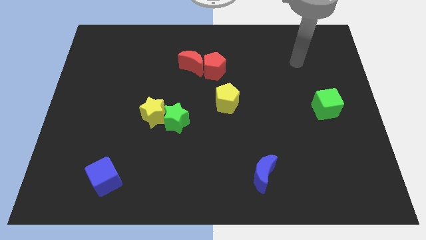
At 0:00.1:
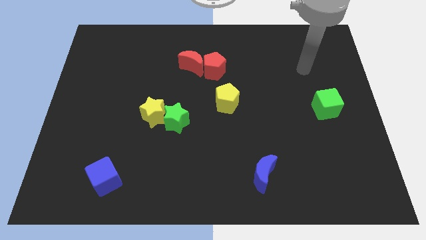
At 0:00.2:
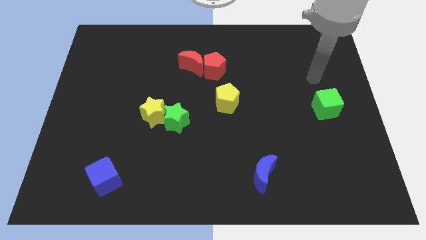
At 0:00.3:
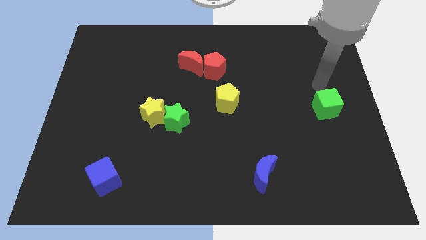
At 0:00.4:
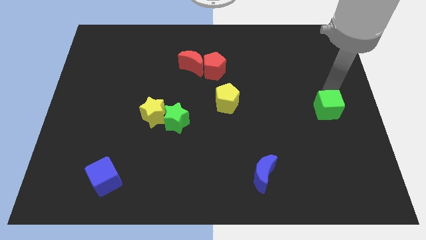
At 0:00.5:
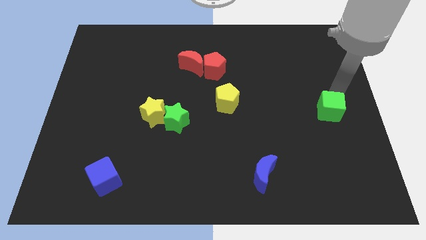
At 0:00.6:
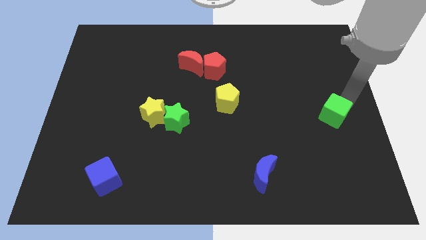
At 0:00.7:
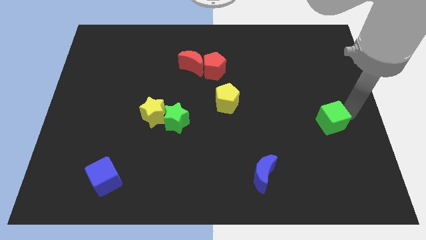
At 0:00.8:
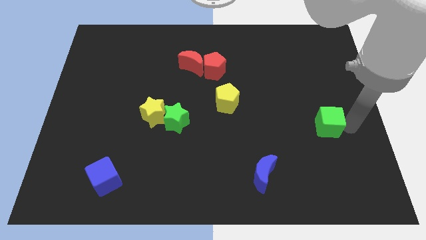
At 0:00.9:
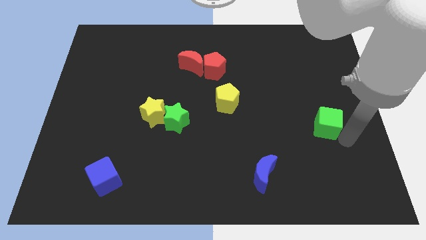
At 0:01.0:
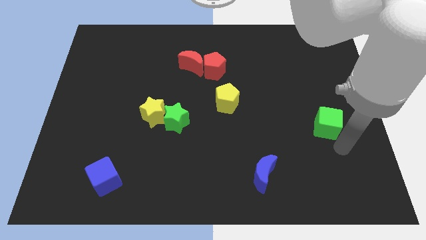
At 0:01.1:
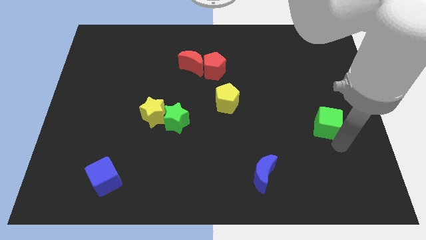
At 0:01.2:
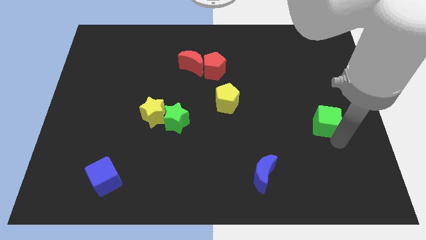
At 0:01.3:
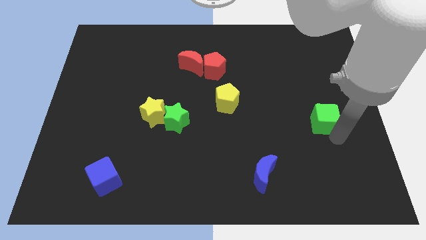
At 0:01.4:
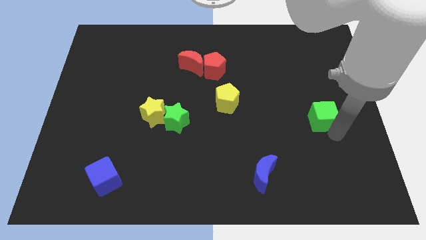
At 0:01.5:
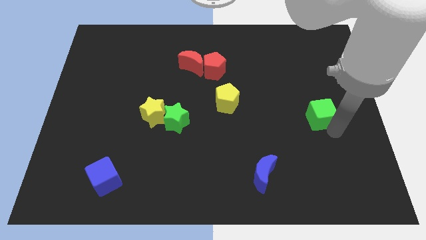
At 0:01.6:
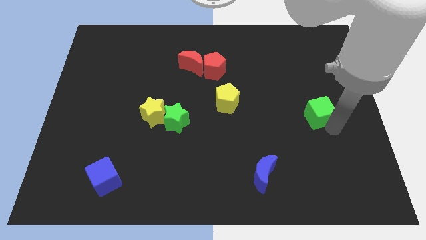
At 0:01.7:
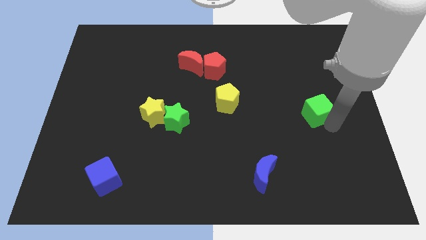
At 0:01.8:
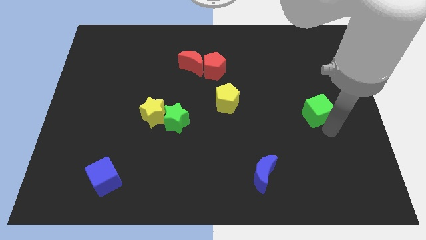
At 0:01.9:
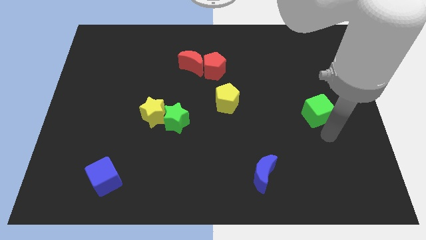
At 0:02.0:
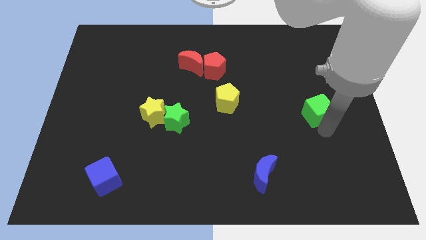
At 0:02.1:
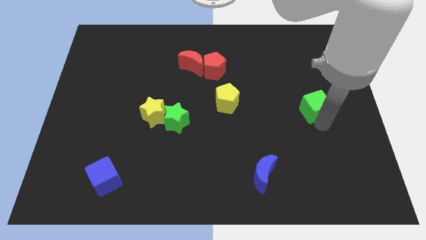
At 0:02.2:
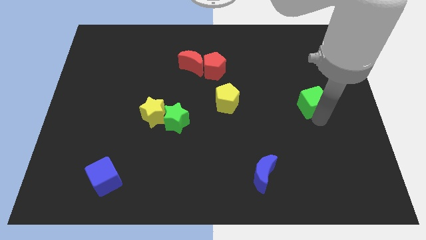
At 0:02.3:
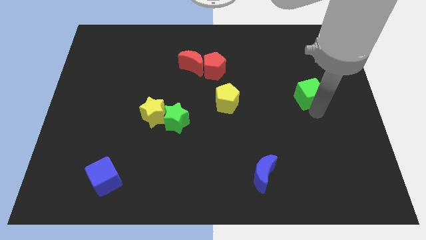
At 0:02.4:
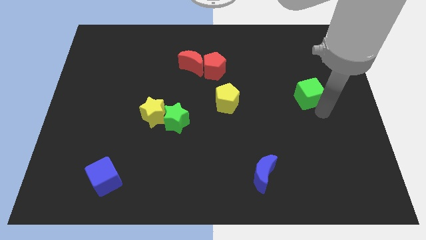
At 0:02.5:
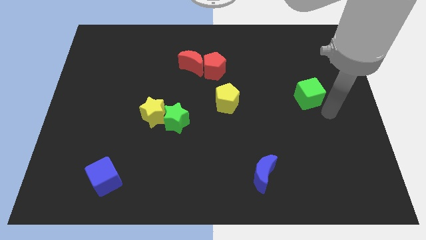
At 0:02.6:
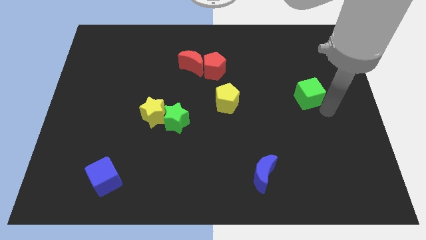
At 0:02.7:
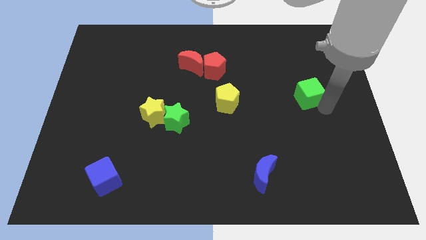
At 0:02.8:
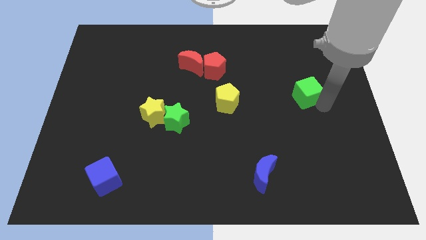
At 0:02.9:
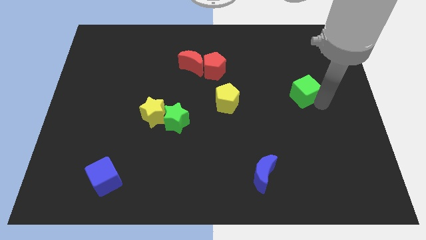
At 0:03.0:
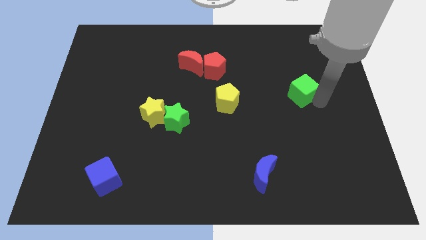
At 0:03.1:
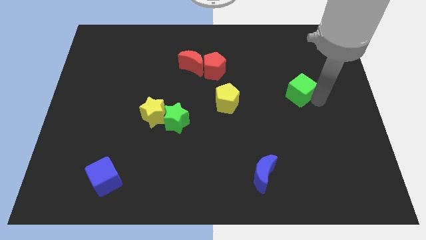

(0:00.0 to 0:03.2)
slide the green cube diagonally upwards and left slightly

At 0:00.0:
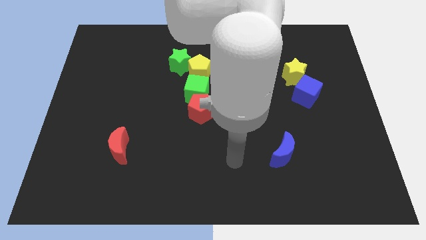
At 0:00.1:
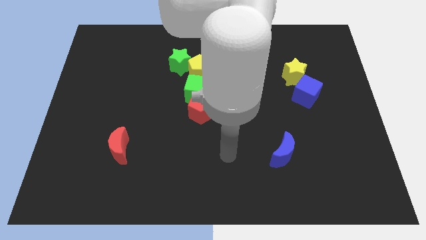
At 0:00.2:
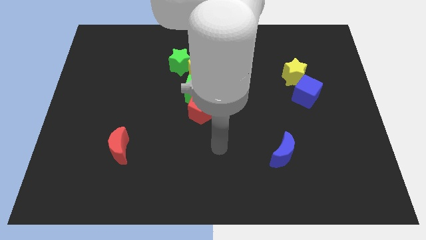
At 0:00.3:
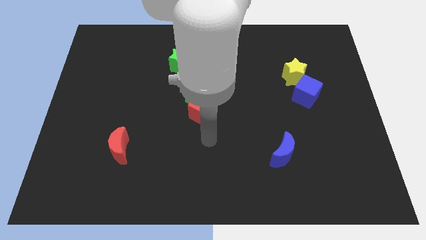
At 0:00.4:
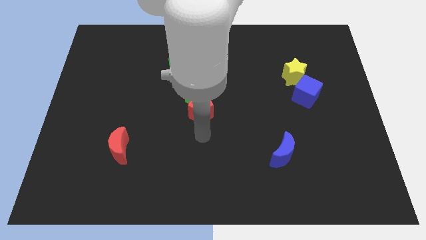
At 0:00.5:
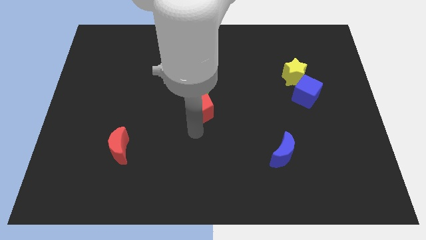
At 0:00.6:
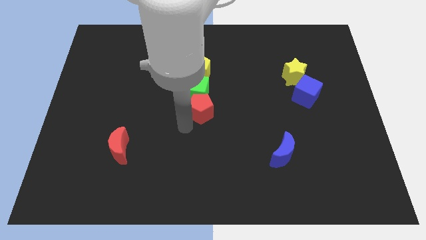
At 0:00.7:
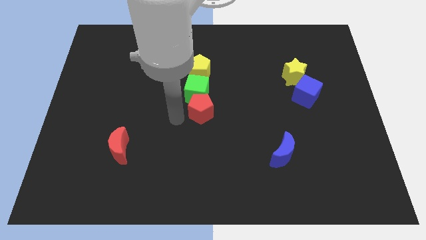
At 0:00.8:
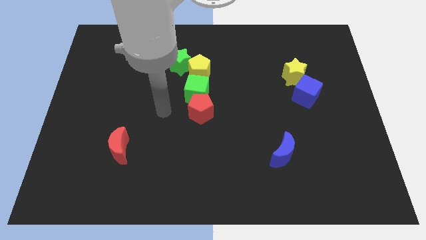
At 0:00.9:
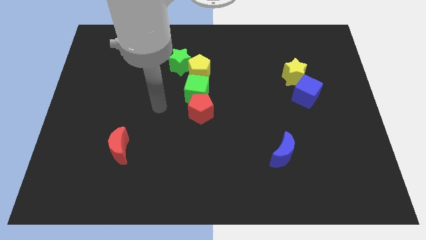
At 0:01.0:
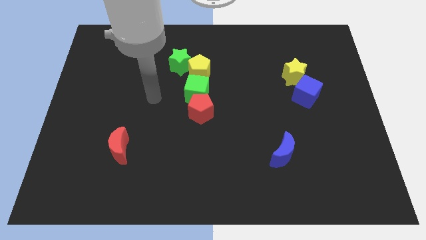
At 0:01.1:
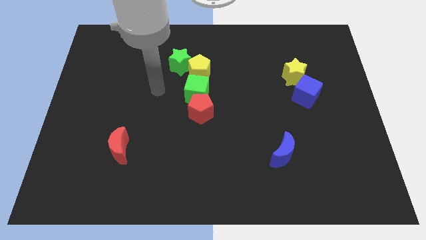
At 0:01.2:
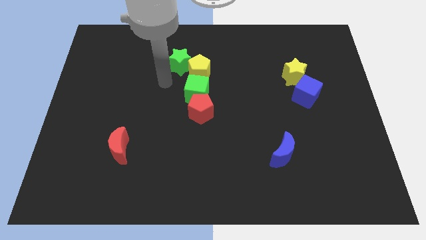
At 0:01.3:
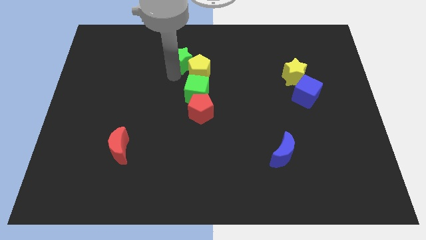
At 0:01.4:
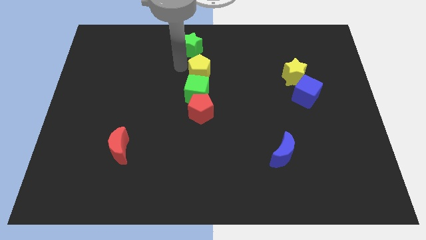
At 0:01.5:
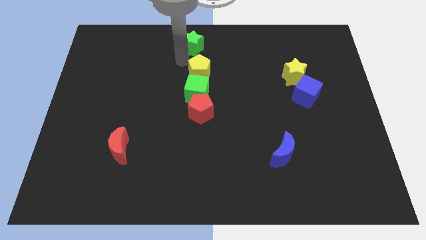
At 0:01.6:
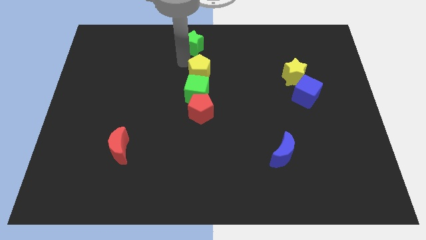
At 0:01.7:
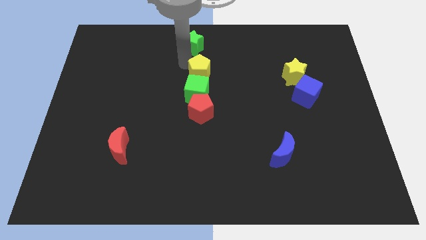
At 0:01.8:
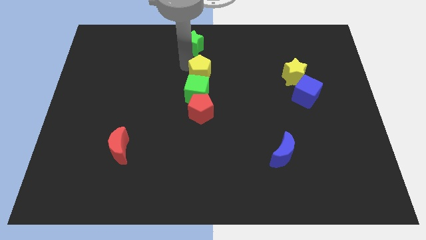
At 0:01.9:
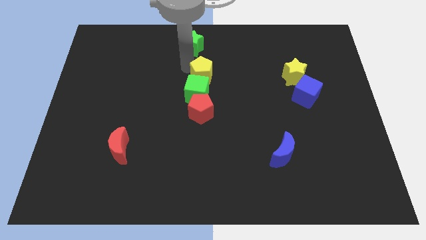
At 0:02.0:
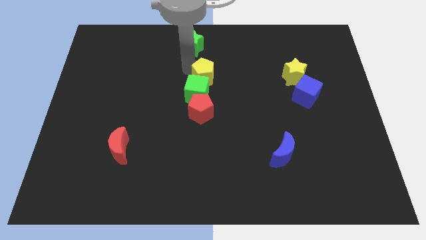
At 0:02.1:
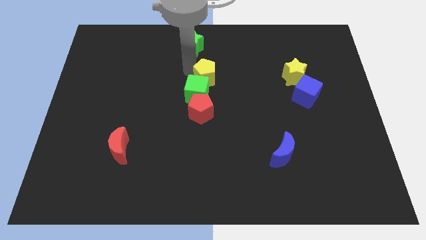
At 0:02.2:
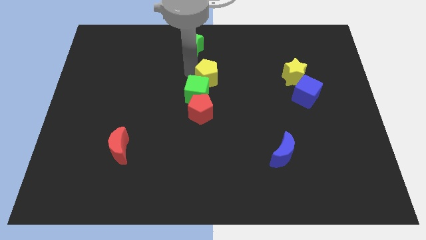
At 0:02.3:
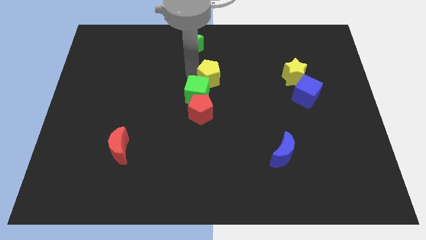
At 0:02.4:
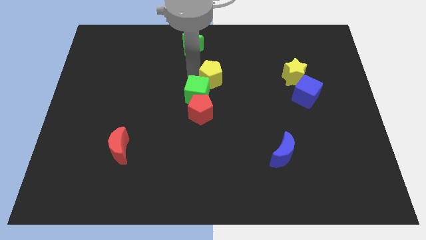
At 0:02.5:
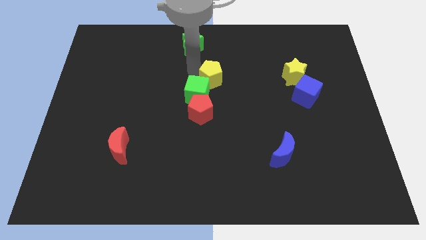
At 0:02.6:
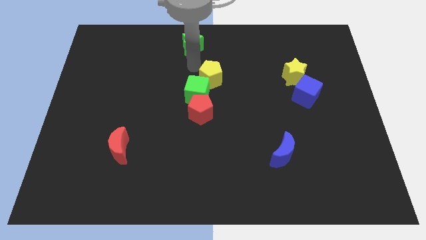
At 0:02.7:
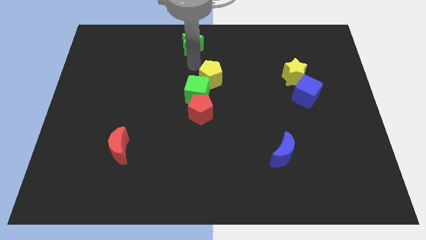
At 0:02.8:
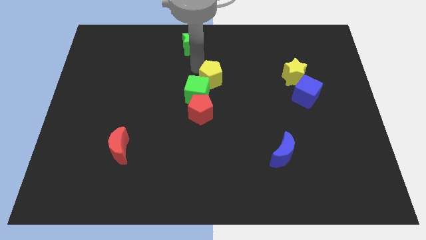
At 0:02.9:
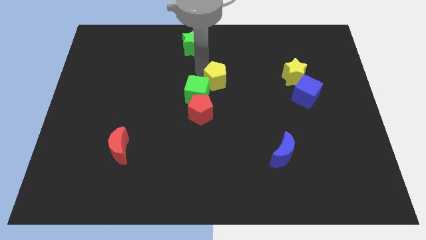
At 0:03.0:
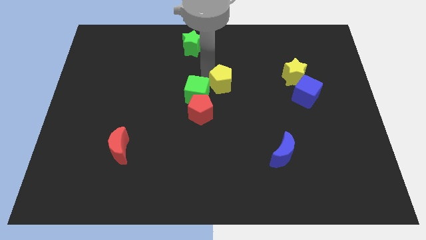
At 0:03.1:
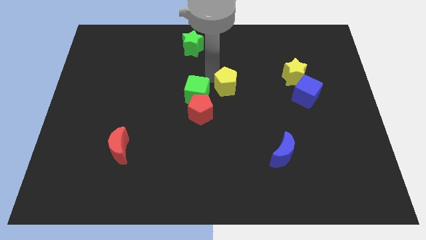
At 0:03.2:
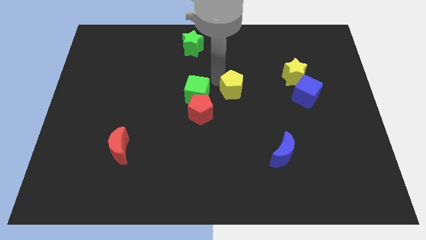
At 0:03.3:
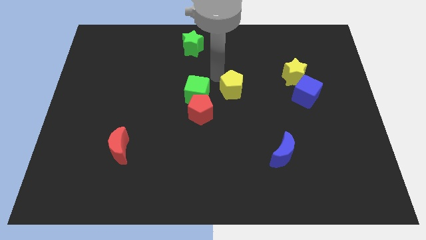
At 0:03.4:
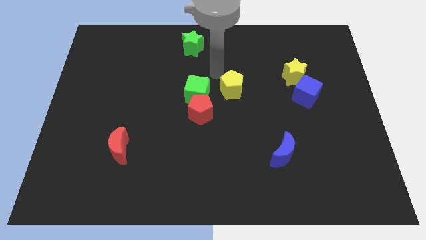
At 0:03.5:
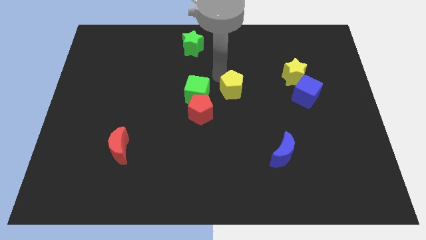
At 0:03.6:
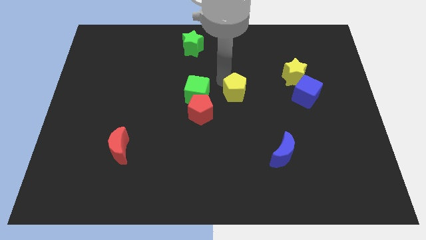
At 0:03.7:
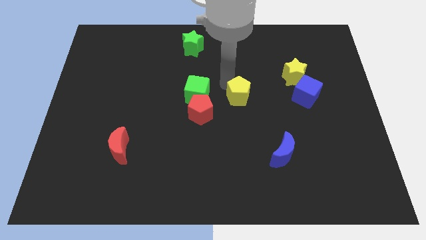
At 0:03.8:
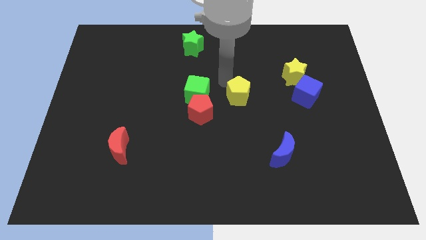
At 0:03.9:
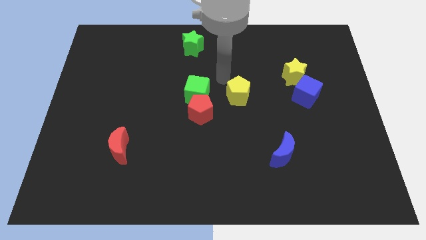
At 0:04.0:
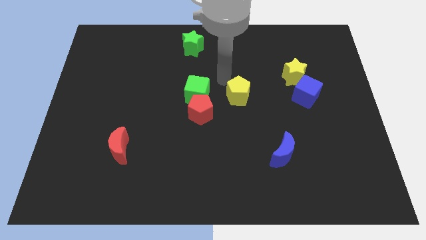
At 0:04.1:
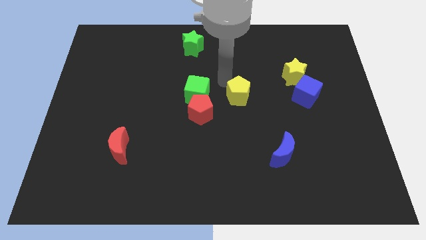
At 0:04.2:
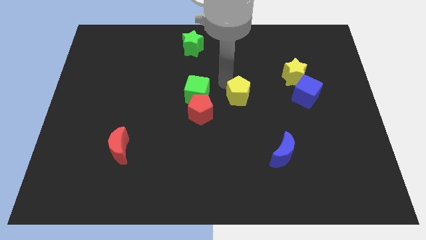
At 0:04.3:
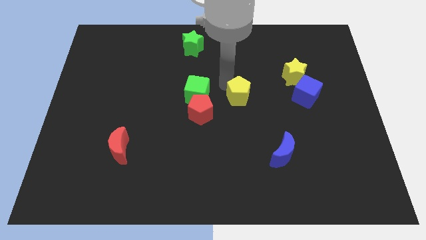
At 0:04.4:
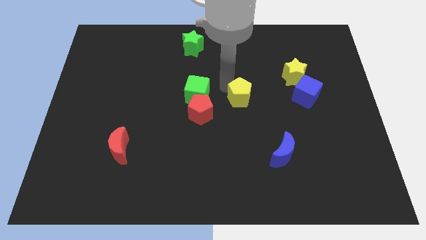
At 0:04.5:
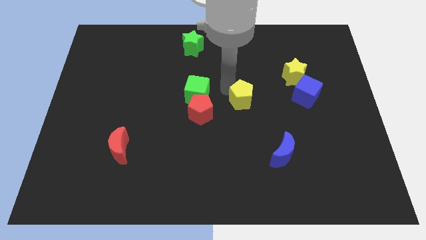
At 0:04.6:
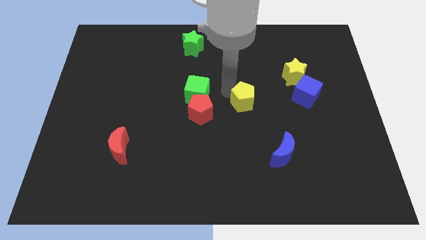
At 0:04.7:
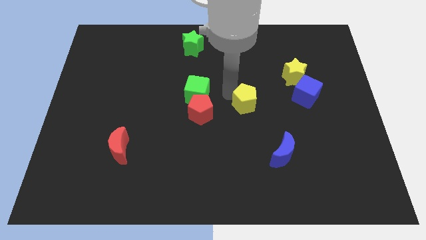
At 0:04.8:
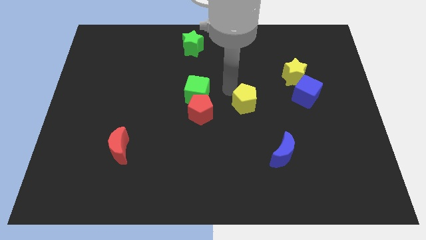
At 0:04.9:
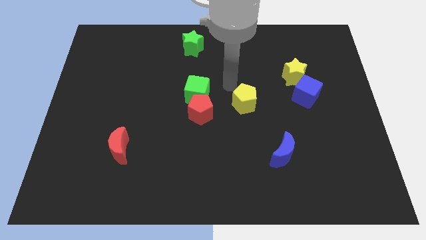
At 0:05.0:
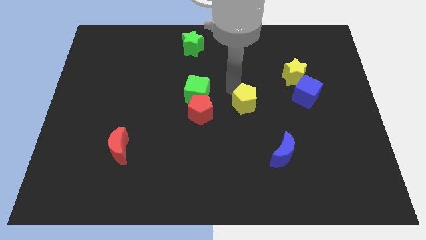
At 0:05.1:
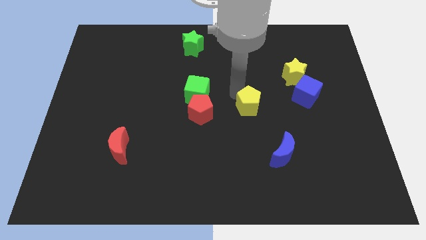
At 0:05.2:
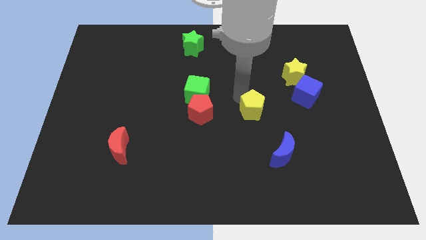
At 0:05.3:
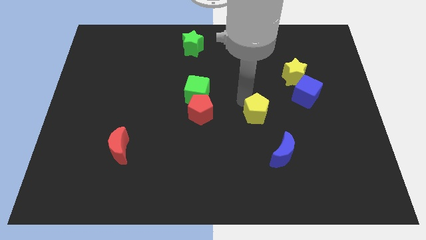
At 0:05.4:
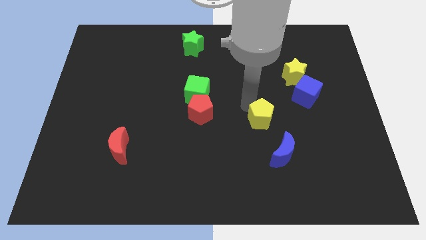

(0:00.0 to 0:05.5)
slide the yellow pentagon down and then to the right
